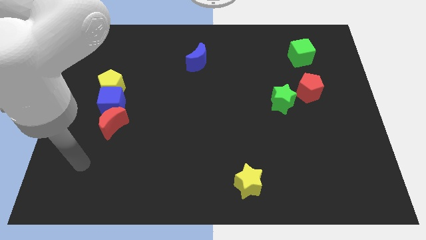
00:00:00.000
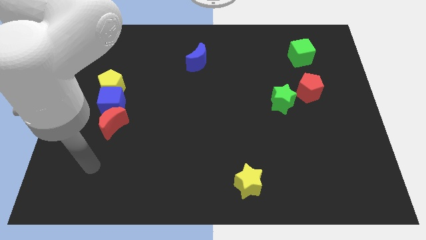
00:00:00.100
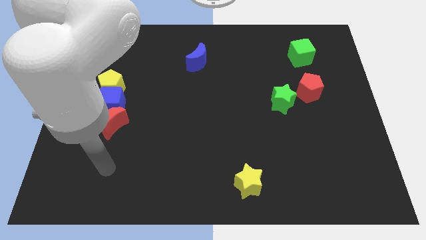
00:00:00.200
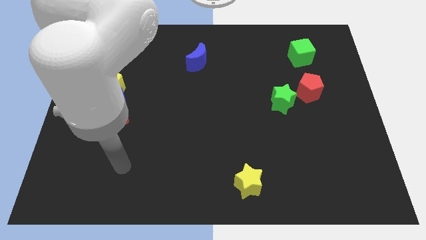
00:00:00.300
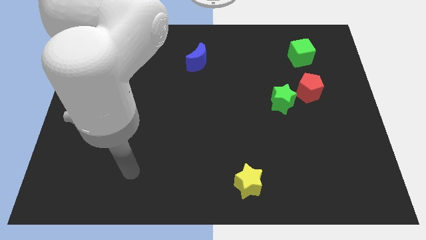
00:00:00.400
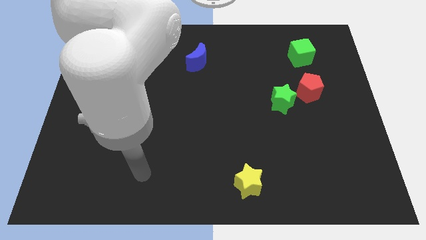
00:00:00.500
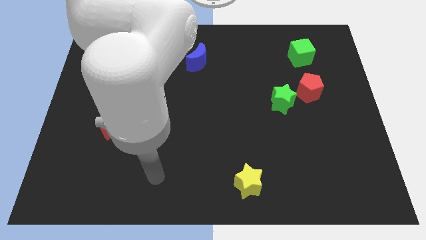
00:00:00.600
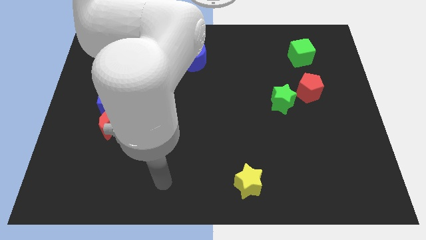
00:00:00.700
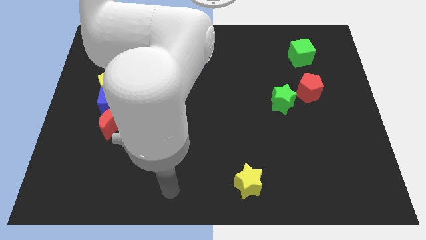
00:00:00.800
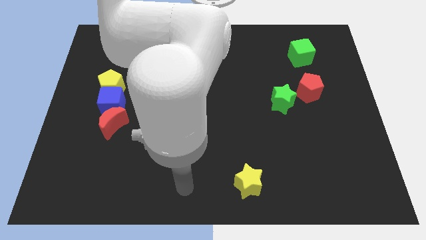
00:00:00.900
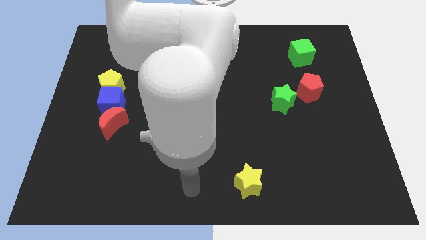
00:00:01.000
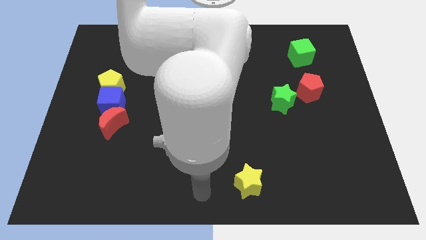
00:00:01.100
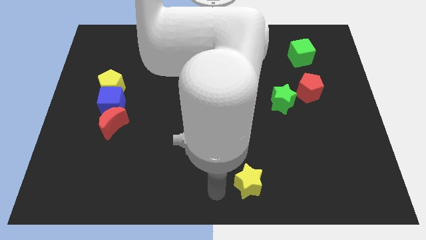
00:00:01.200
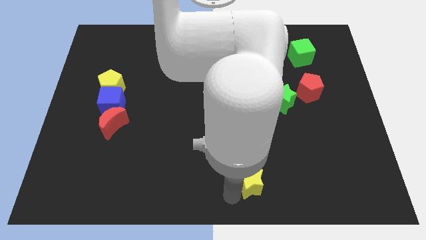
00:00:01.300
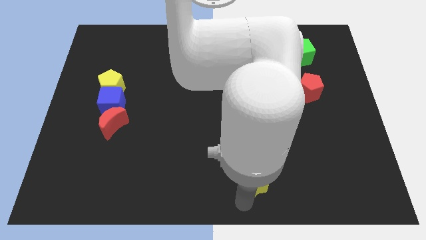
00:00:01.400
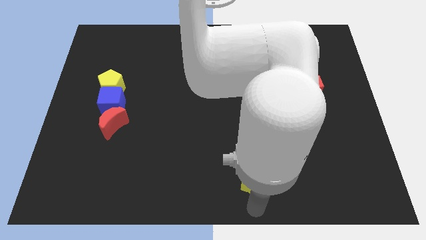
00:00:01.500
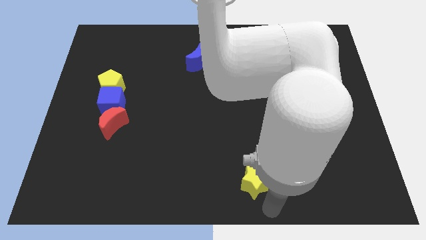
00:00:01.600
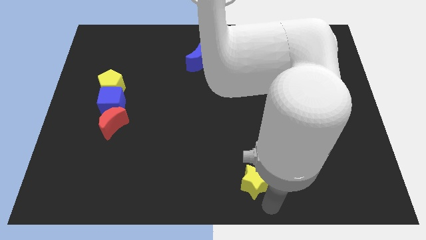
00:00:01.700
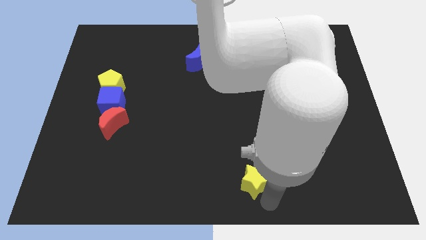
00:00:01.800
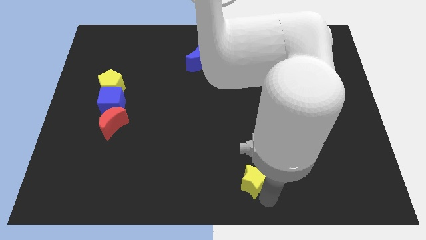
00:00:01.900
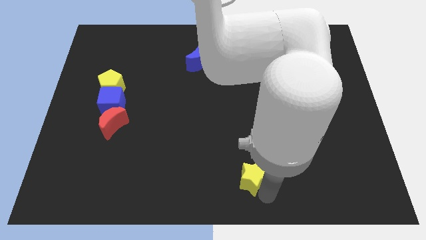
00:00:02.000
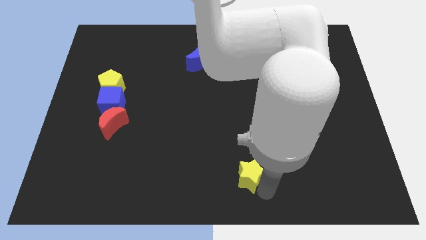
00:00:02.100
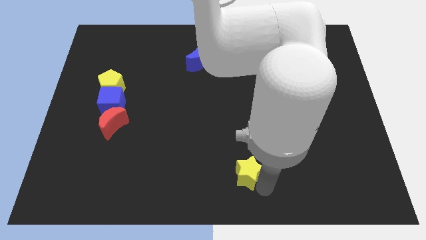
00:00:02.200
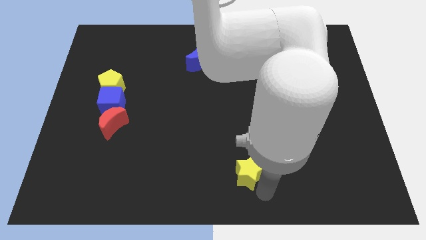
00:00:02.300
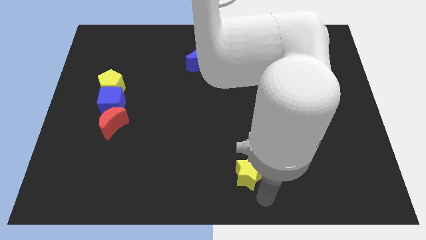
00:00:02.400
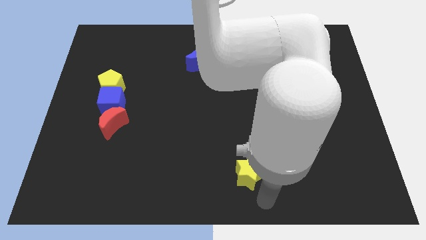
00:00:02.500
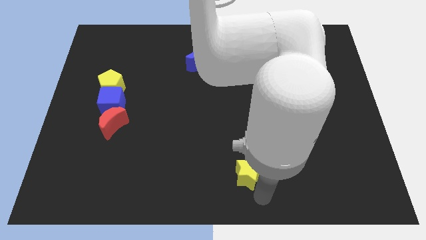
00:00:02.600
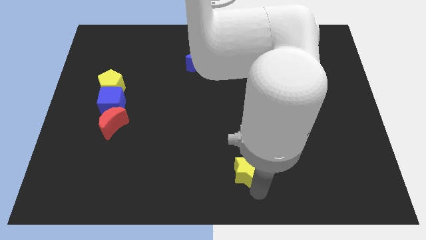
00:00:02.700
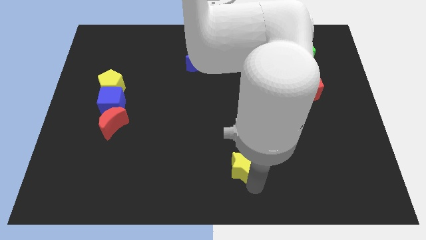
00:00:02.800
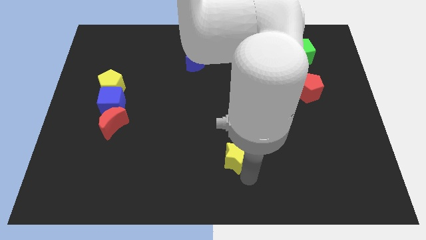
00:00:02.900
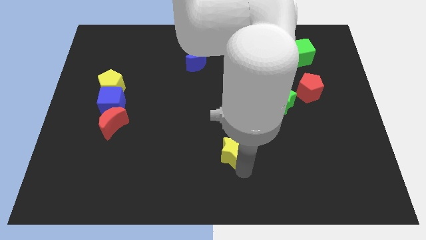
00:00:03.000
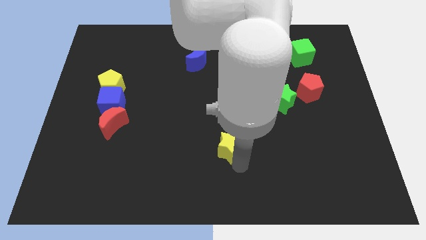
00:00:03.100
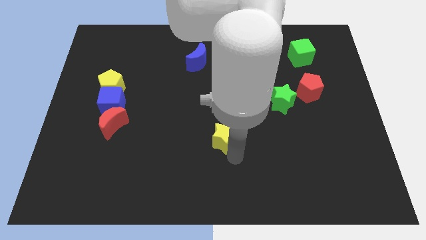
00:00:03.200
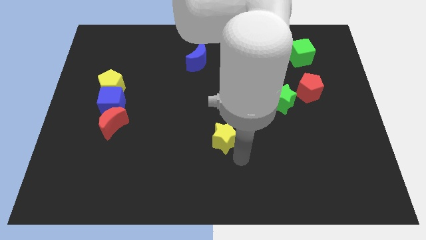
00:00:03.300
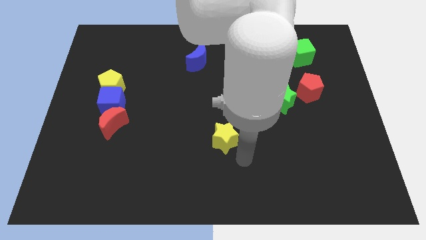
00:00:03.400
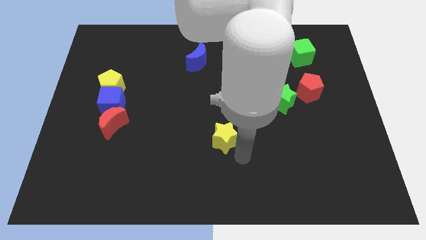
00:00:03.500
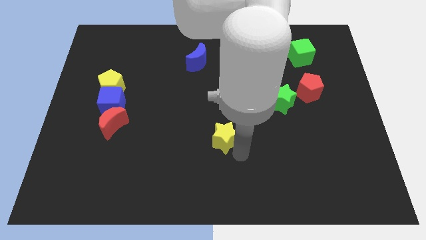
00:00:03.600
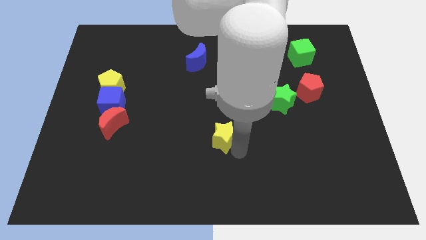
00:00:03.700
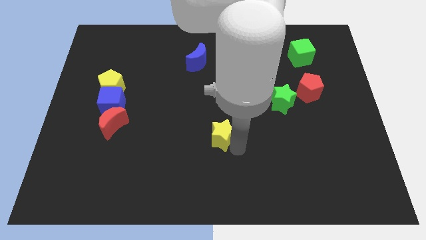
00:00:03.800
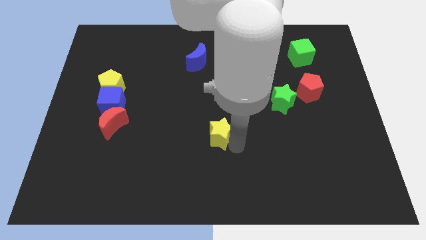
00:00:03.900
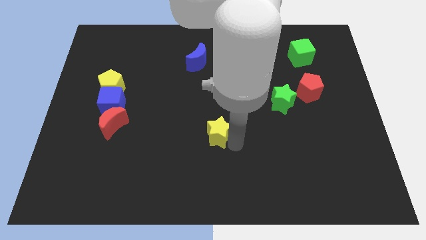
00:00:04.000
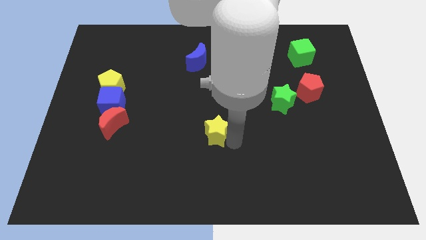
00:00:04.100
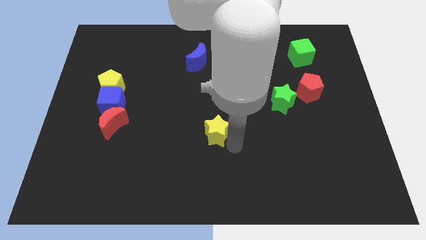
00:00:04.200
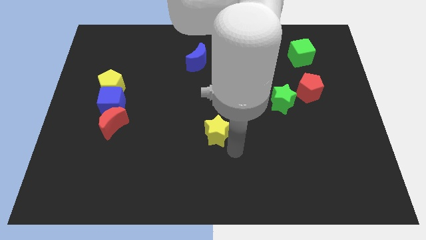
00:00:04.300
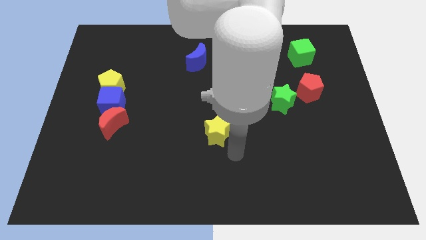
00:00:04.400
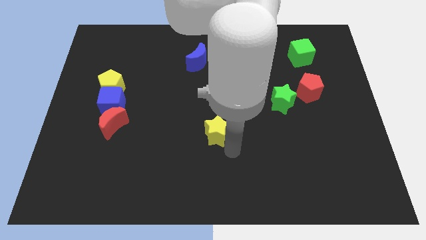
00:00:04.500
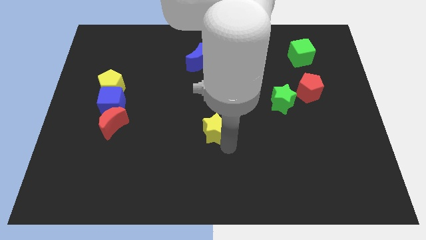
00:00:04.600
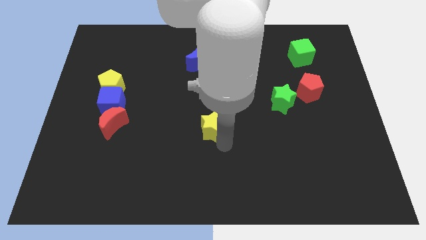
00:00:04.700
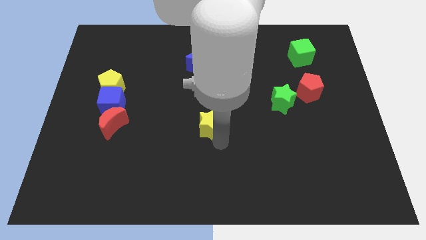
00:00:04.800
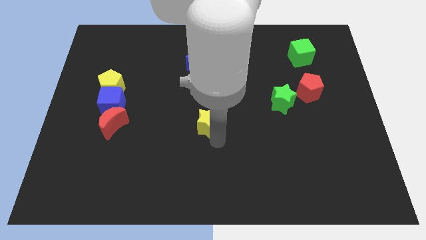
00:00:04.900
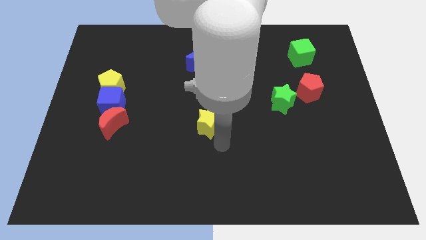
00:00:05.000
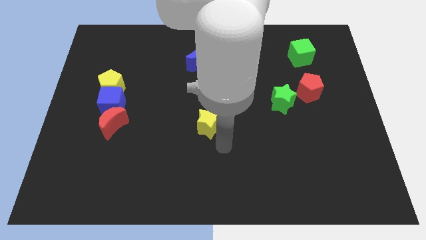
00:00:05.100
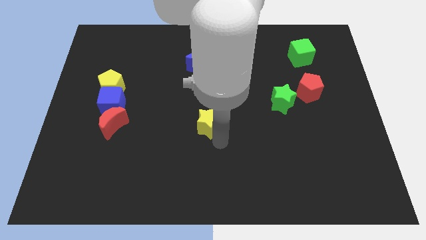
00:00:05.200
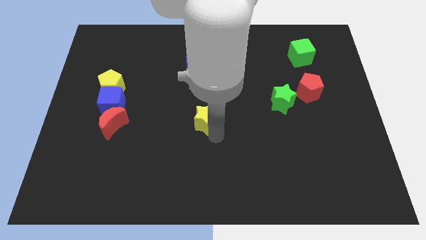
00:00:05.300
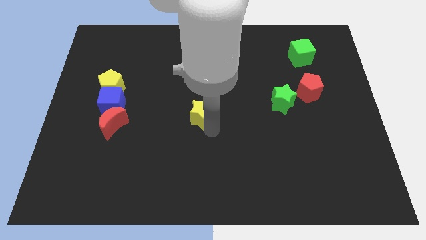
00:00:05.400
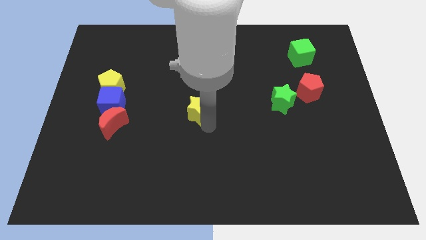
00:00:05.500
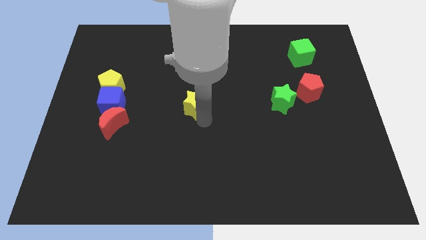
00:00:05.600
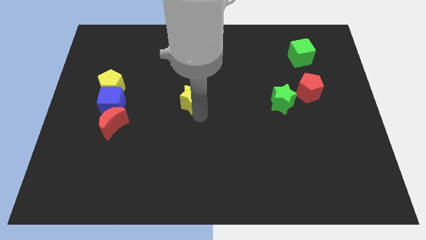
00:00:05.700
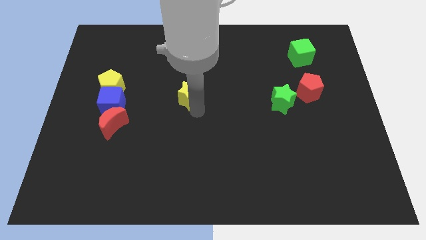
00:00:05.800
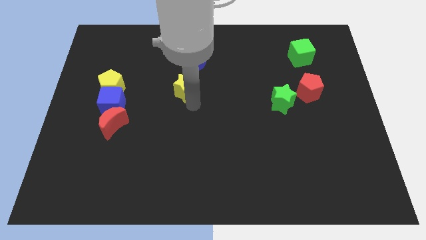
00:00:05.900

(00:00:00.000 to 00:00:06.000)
slide the yellow star to the bottom left side of the blue moon

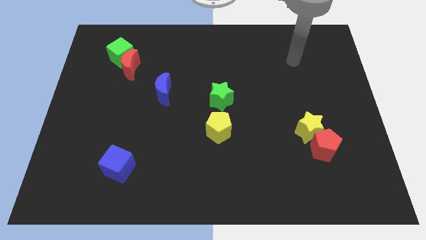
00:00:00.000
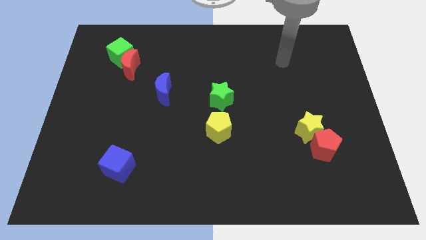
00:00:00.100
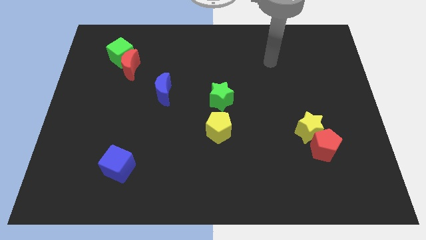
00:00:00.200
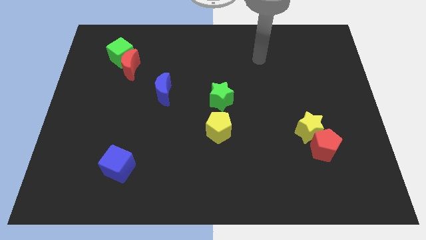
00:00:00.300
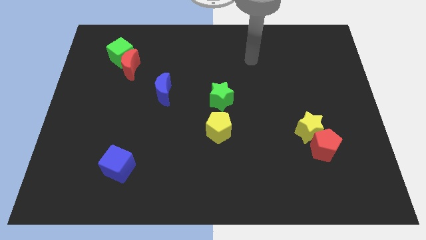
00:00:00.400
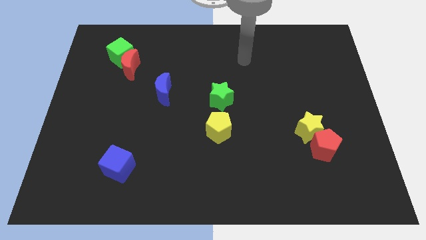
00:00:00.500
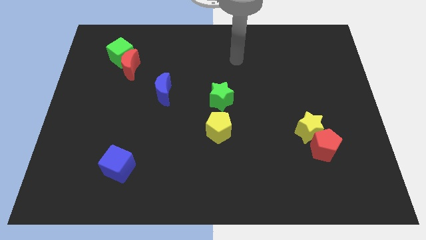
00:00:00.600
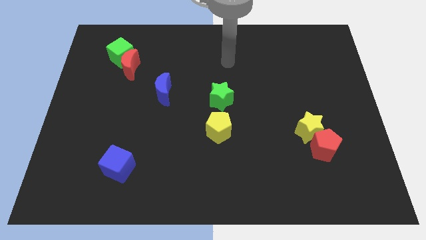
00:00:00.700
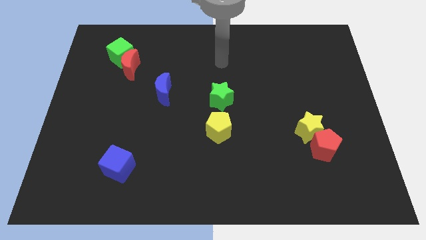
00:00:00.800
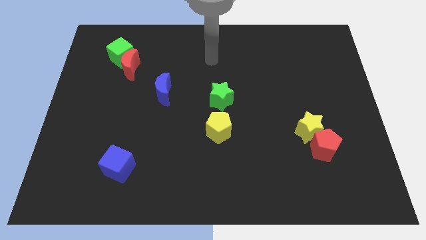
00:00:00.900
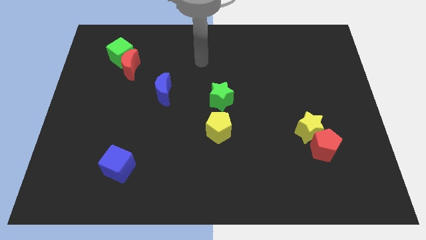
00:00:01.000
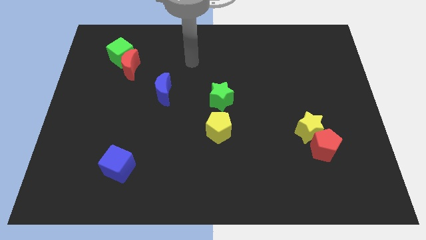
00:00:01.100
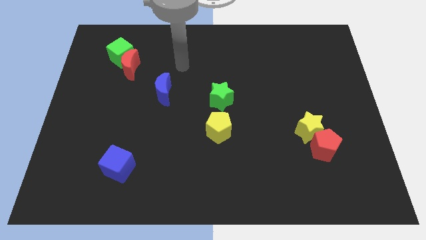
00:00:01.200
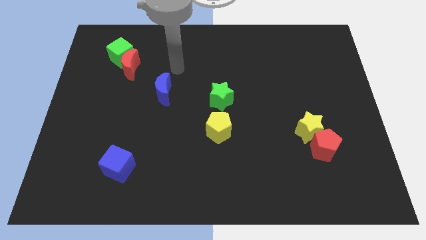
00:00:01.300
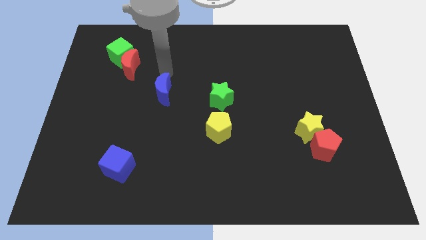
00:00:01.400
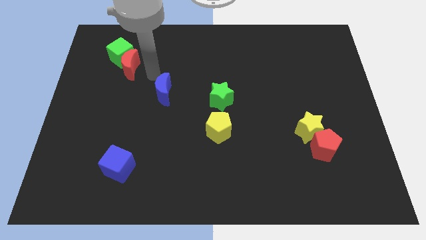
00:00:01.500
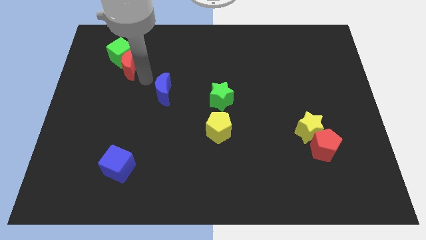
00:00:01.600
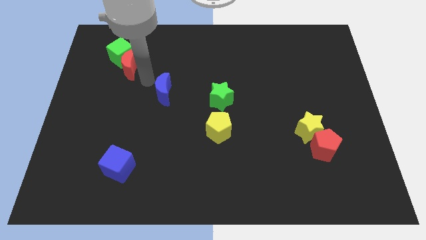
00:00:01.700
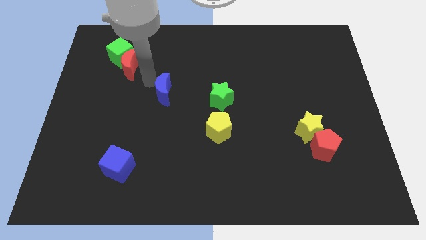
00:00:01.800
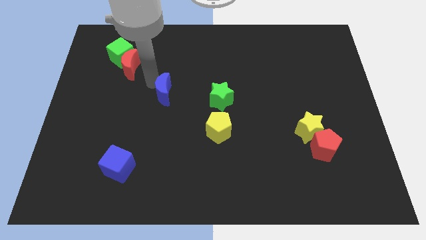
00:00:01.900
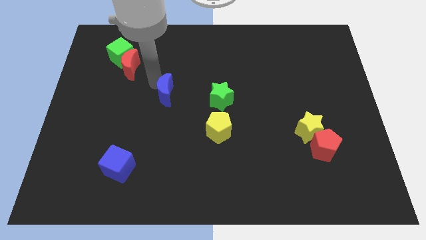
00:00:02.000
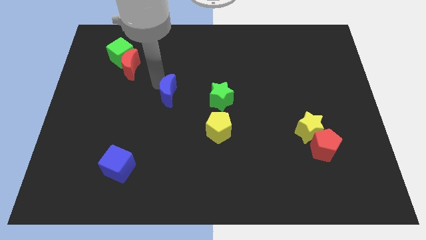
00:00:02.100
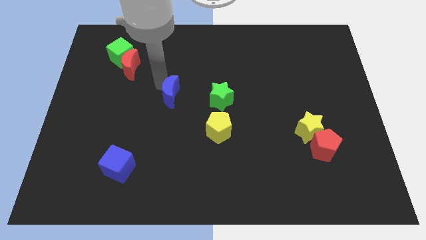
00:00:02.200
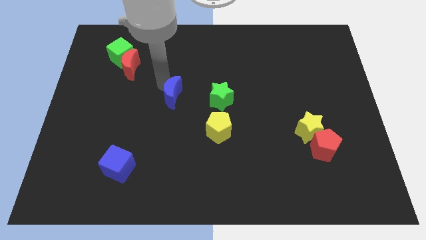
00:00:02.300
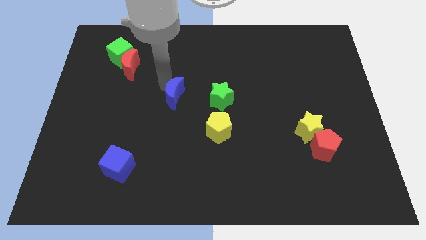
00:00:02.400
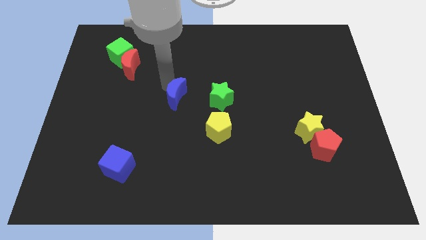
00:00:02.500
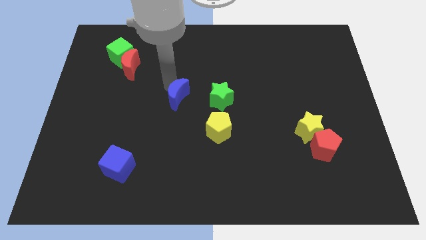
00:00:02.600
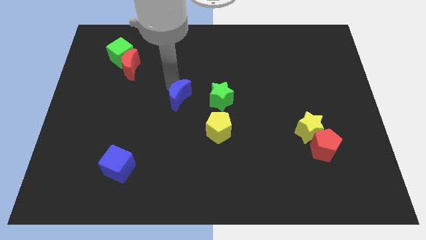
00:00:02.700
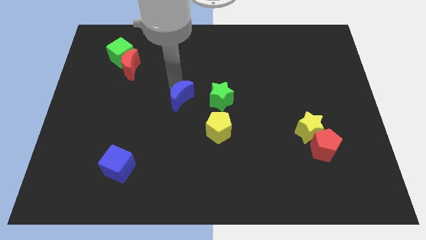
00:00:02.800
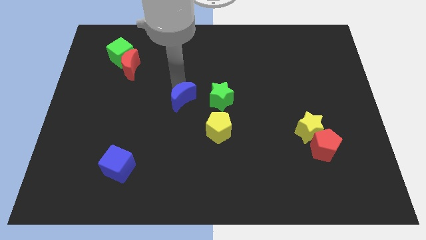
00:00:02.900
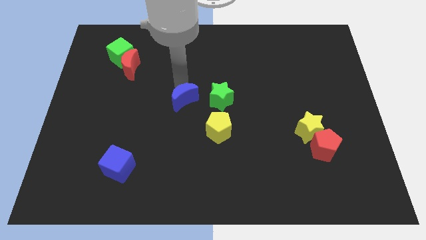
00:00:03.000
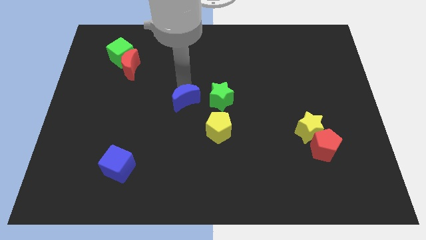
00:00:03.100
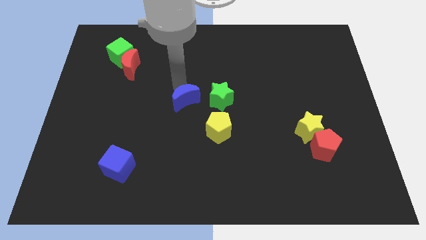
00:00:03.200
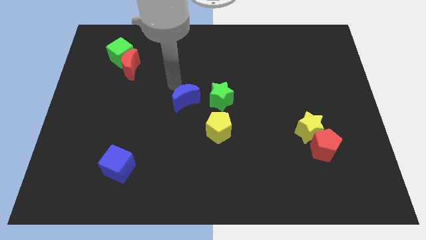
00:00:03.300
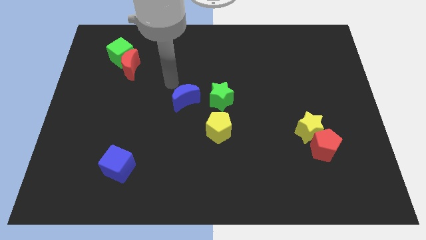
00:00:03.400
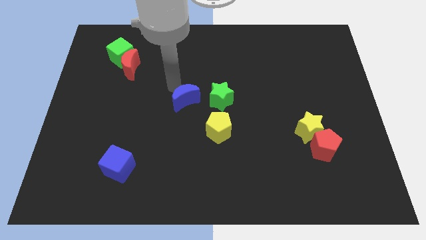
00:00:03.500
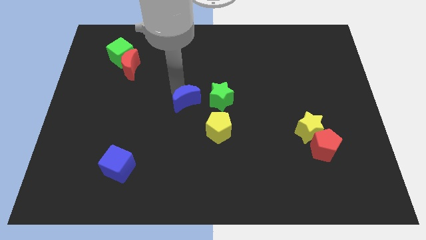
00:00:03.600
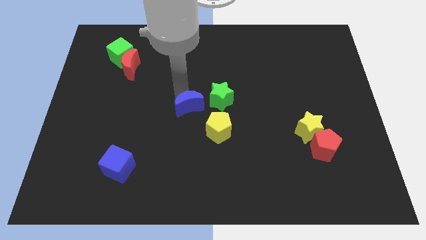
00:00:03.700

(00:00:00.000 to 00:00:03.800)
push the blue moon to the bottom left of the green star
